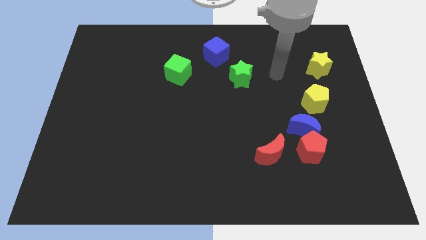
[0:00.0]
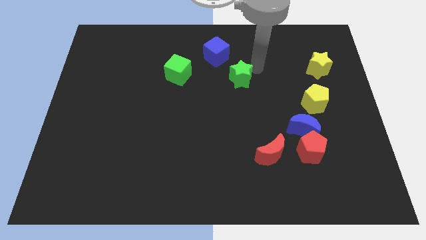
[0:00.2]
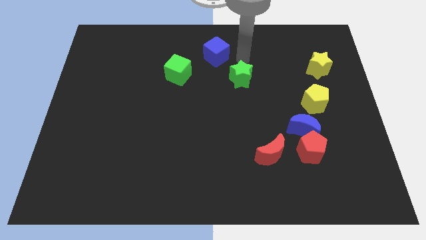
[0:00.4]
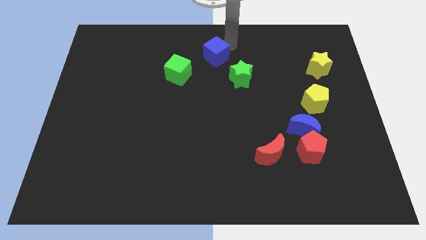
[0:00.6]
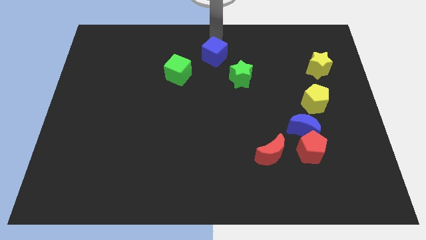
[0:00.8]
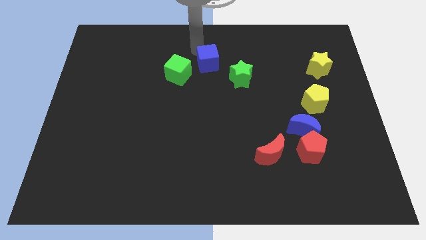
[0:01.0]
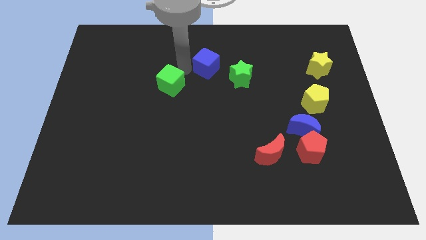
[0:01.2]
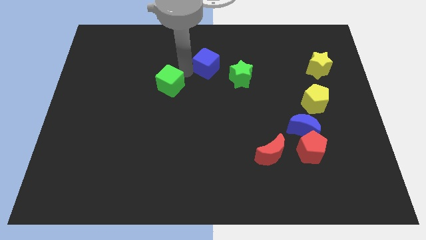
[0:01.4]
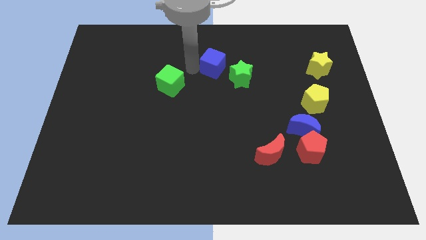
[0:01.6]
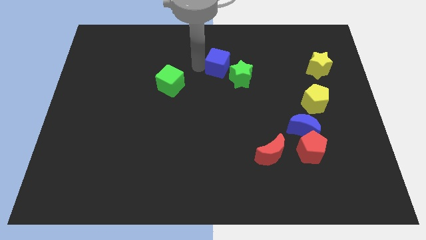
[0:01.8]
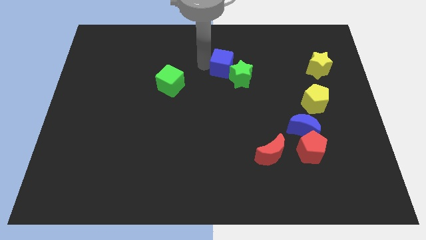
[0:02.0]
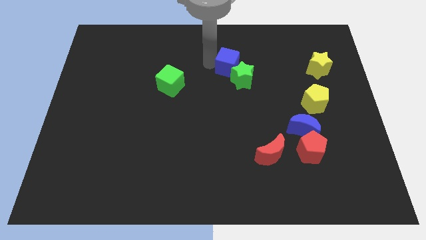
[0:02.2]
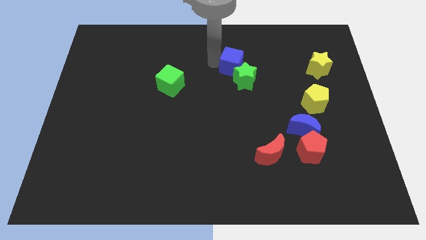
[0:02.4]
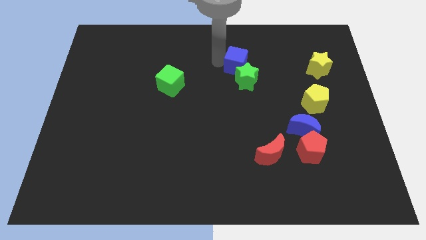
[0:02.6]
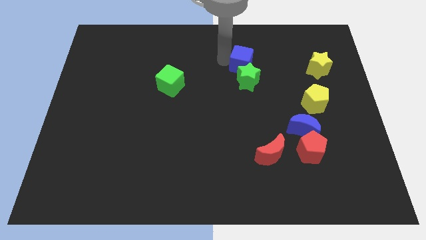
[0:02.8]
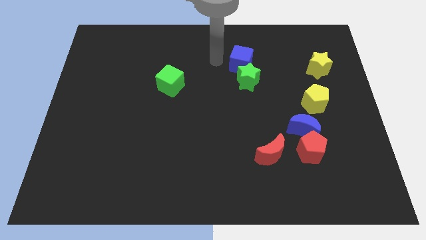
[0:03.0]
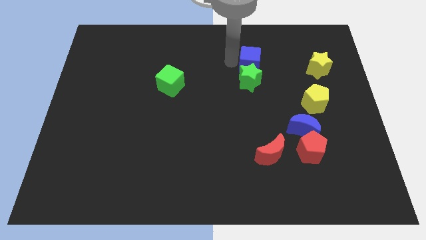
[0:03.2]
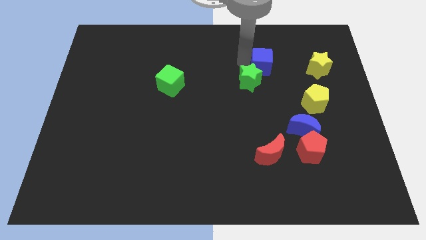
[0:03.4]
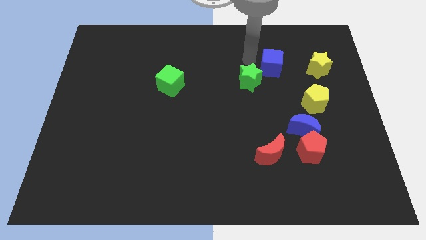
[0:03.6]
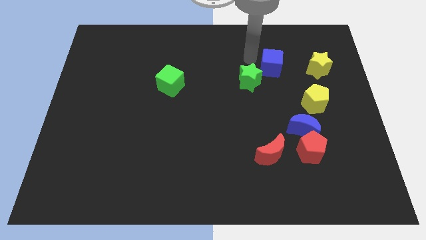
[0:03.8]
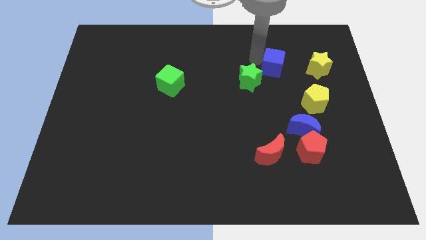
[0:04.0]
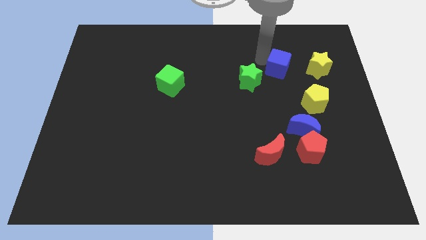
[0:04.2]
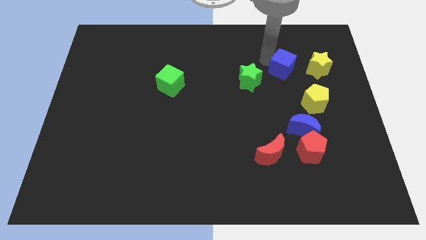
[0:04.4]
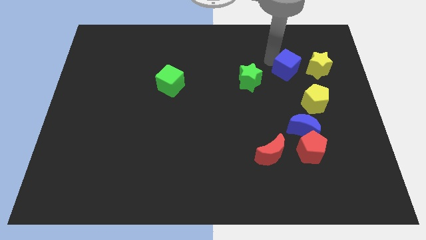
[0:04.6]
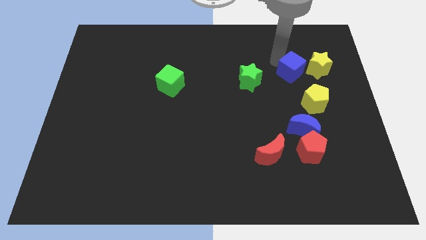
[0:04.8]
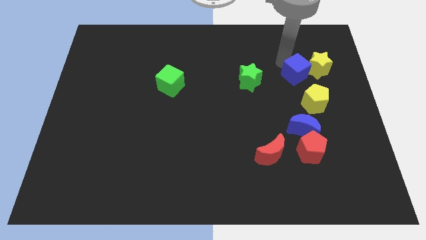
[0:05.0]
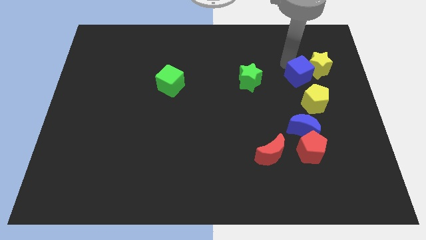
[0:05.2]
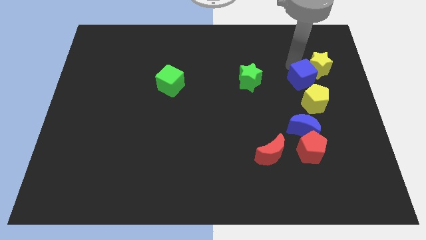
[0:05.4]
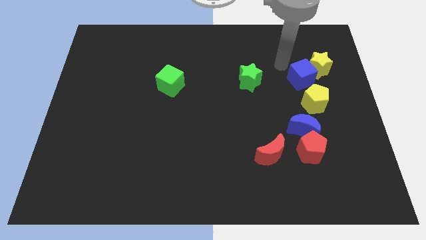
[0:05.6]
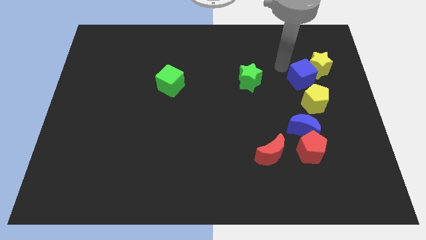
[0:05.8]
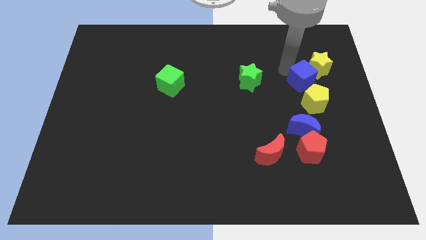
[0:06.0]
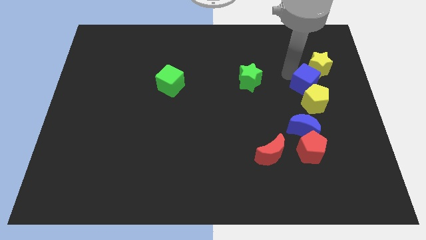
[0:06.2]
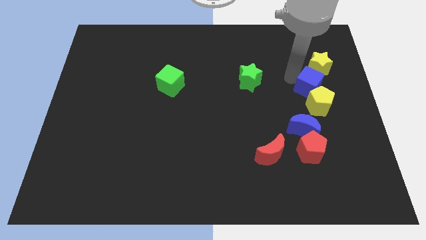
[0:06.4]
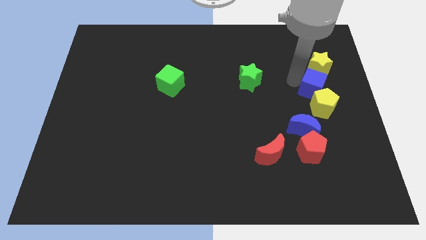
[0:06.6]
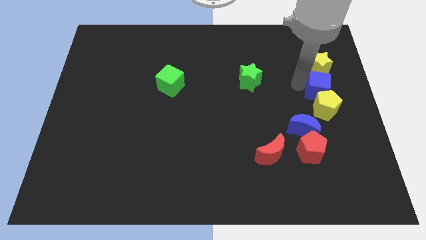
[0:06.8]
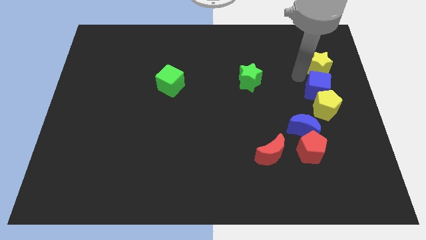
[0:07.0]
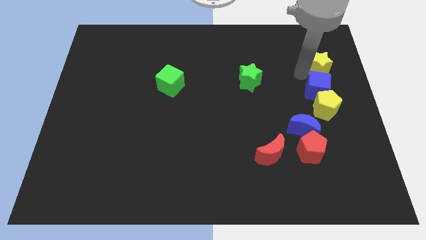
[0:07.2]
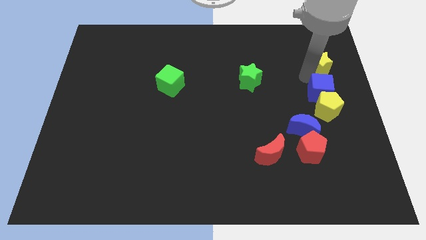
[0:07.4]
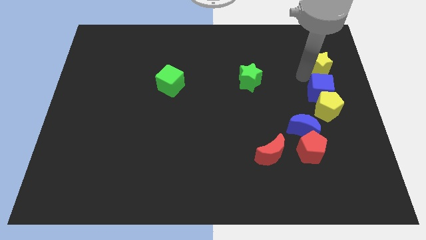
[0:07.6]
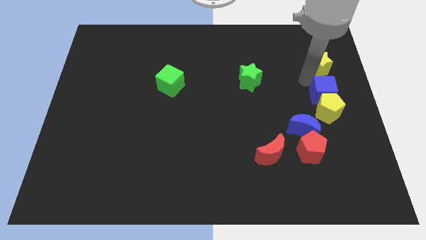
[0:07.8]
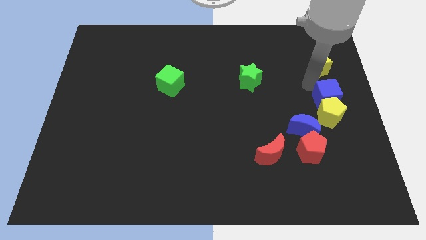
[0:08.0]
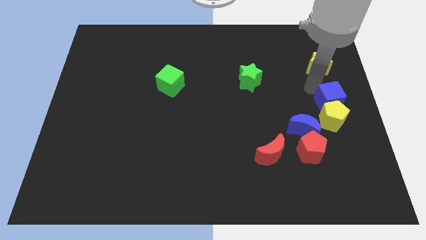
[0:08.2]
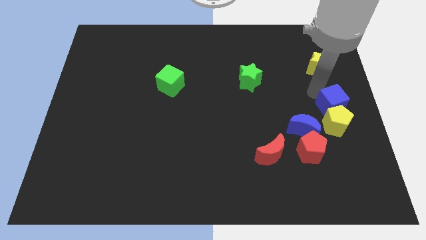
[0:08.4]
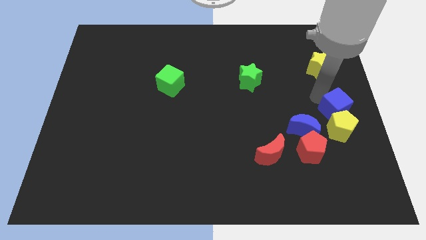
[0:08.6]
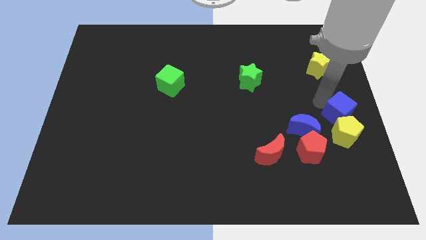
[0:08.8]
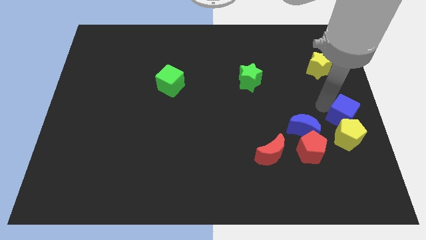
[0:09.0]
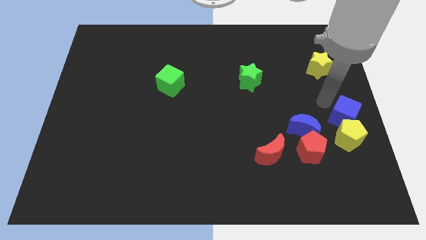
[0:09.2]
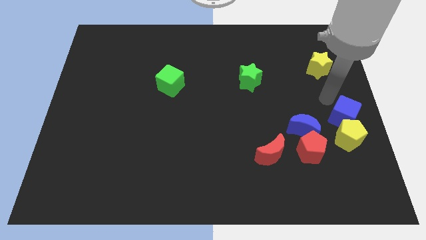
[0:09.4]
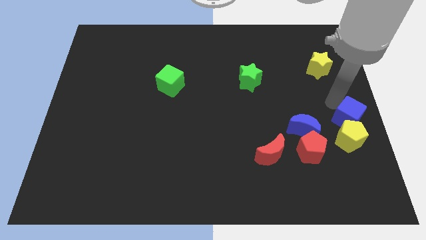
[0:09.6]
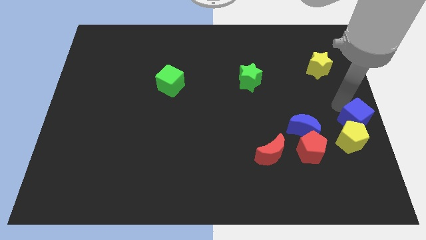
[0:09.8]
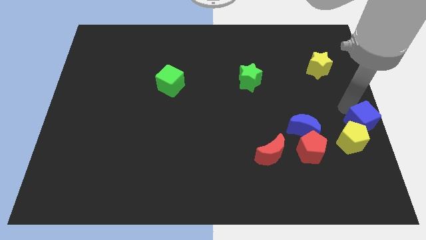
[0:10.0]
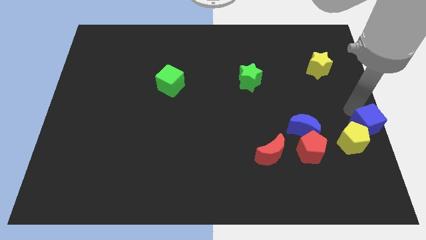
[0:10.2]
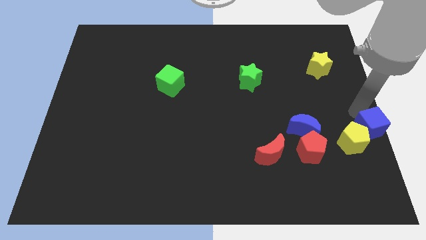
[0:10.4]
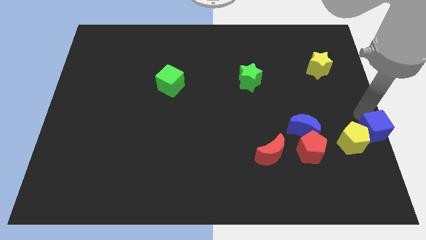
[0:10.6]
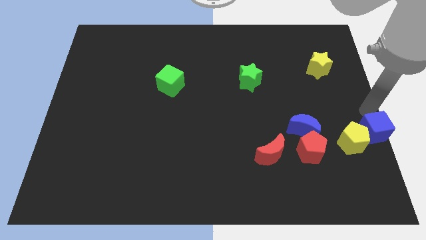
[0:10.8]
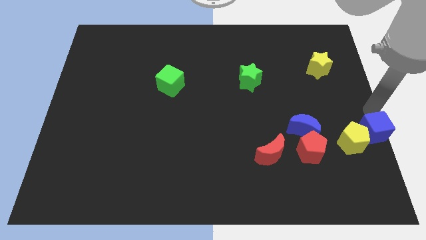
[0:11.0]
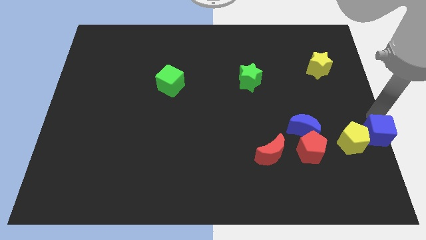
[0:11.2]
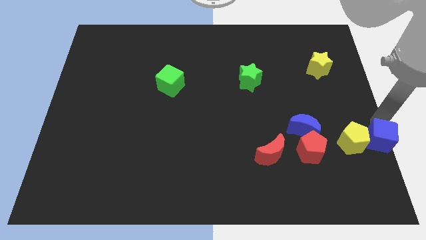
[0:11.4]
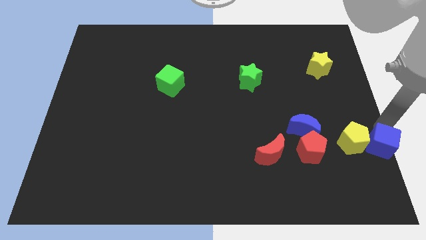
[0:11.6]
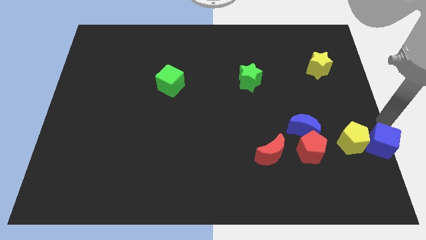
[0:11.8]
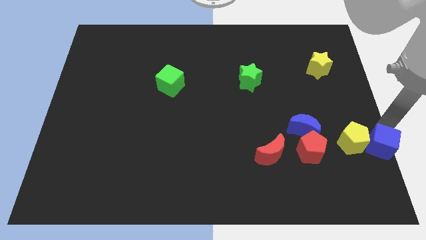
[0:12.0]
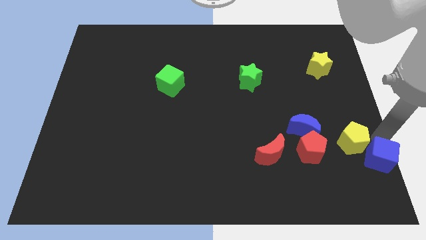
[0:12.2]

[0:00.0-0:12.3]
slide the blue cube to the bottom right

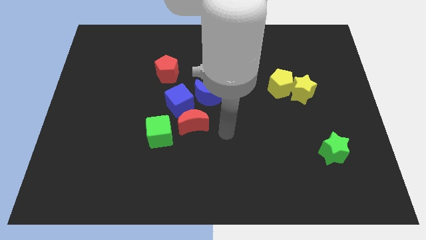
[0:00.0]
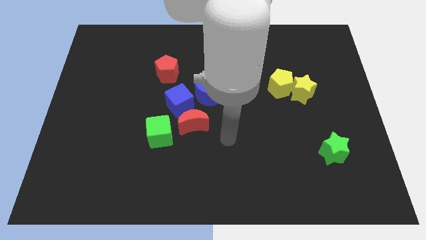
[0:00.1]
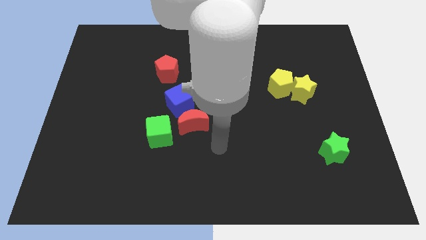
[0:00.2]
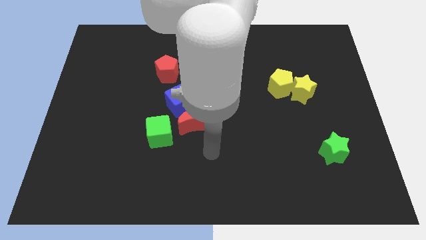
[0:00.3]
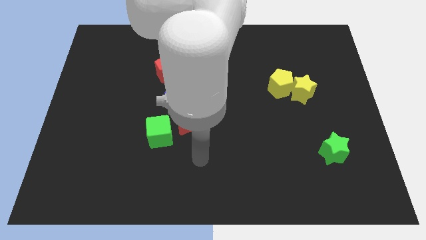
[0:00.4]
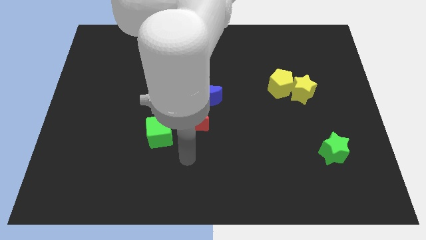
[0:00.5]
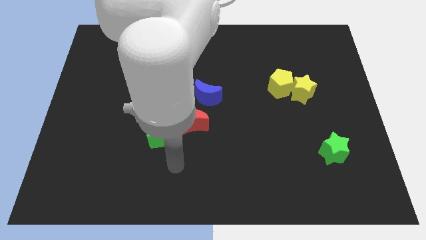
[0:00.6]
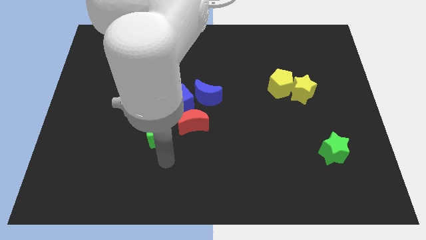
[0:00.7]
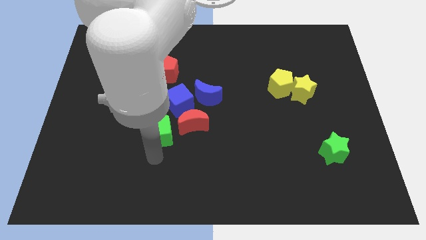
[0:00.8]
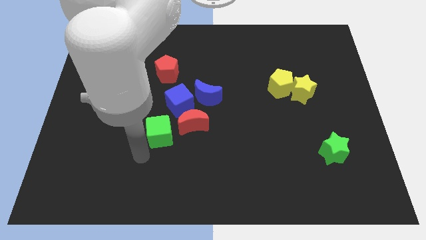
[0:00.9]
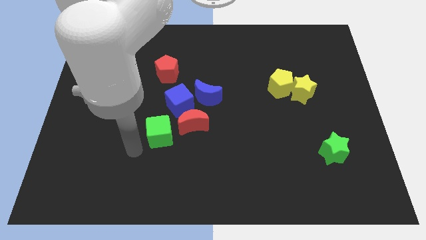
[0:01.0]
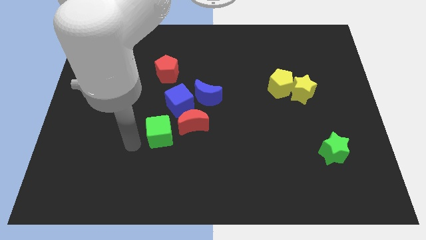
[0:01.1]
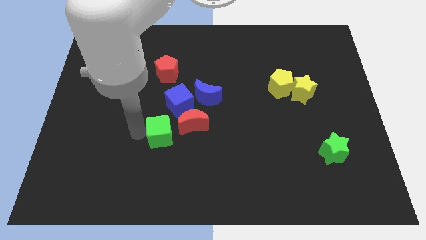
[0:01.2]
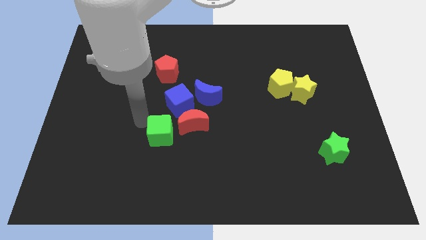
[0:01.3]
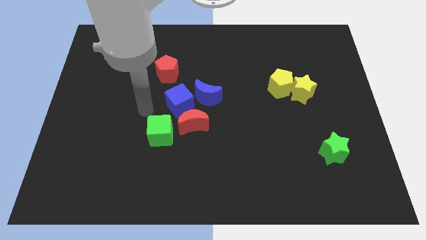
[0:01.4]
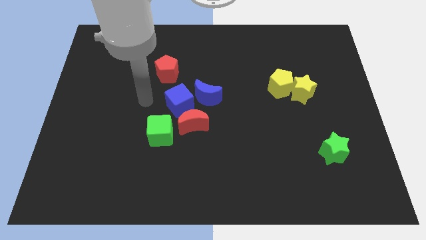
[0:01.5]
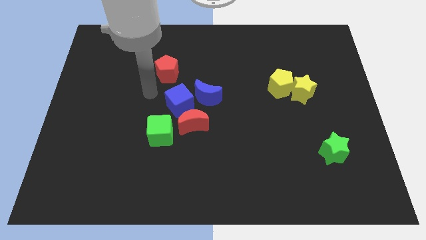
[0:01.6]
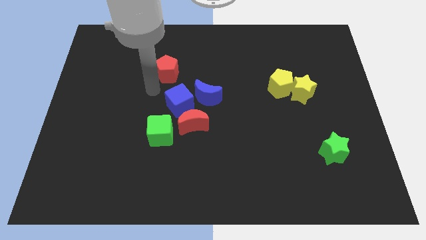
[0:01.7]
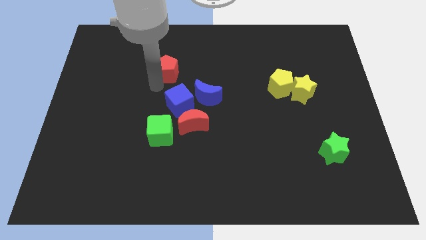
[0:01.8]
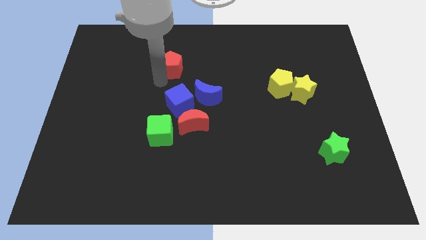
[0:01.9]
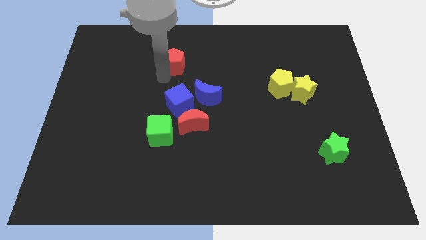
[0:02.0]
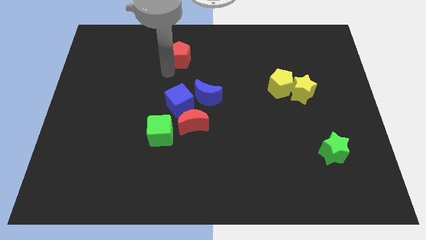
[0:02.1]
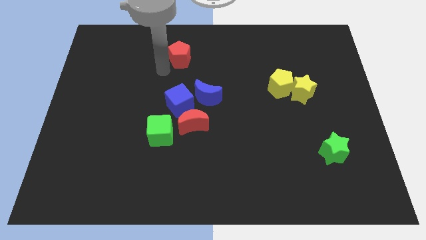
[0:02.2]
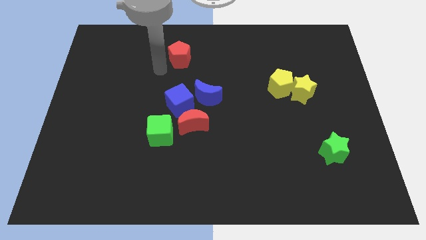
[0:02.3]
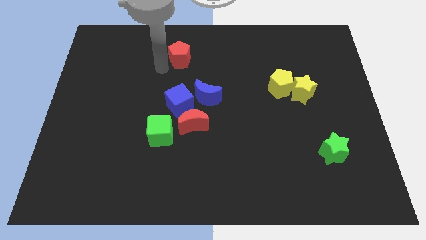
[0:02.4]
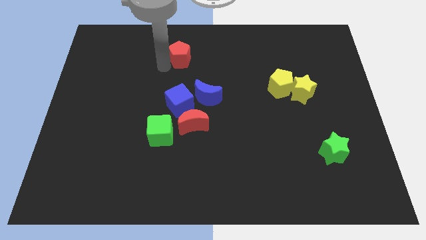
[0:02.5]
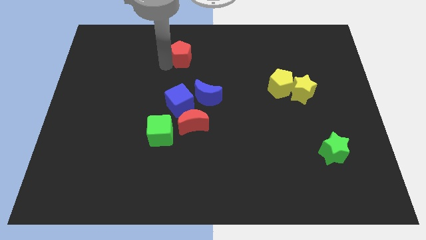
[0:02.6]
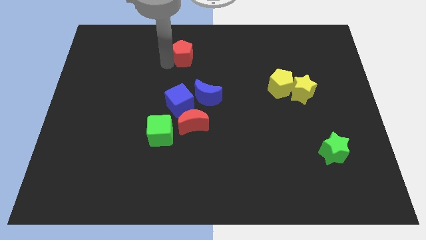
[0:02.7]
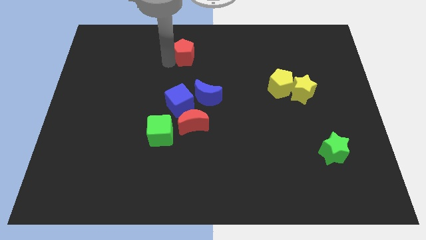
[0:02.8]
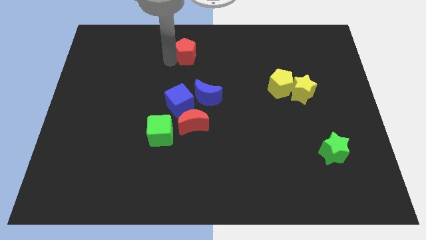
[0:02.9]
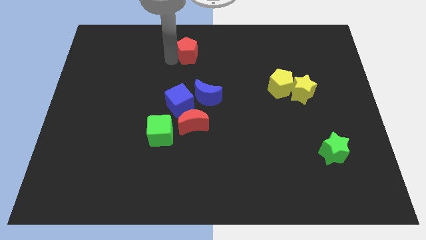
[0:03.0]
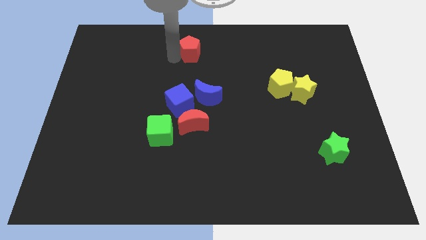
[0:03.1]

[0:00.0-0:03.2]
move the red pentagon to the top
